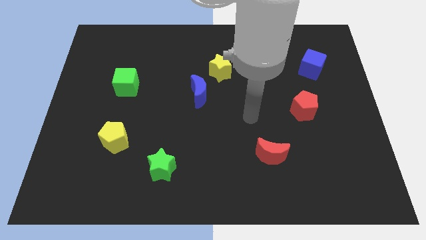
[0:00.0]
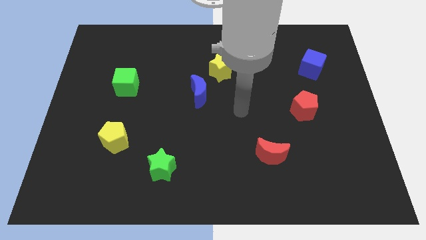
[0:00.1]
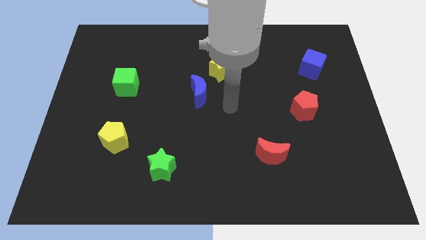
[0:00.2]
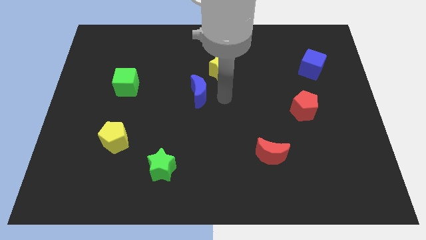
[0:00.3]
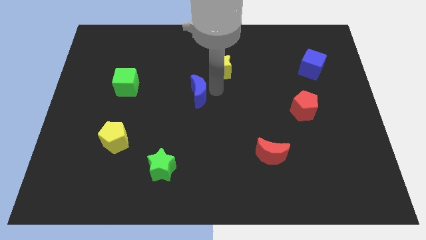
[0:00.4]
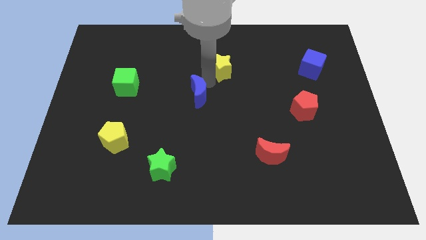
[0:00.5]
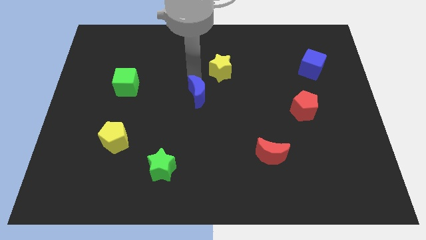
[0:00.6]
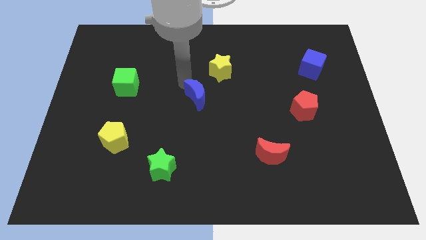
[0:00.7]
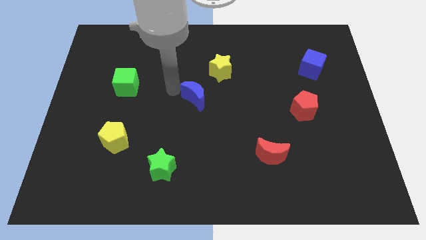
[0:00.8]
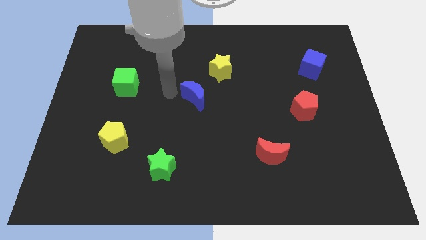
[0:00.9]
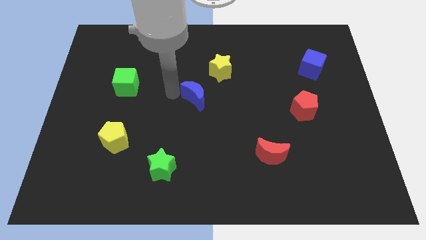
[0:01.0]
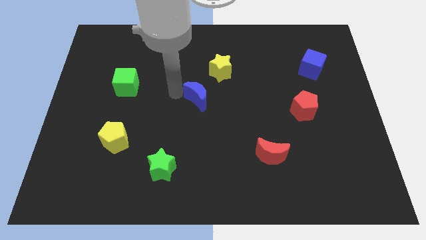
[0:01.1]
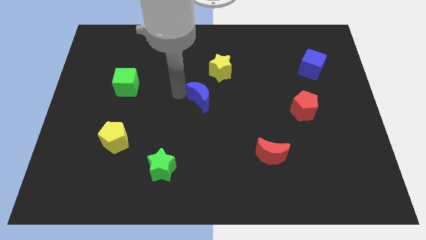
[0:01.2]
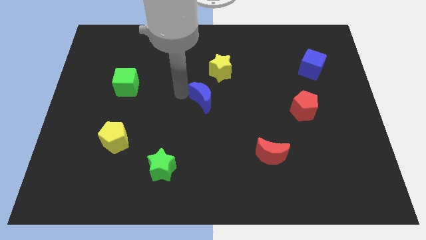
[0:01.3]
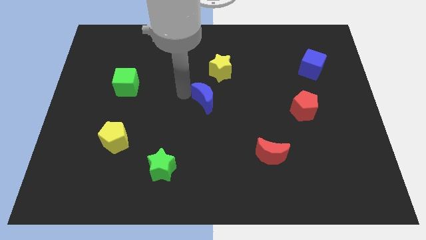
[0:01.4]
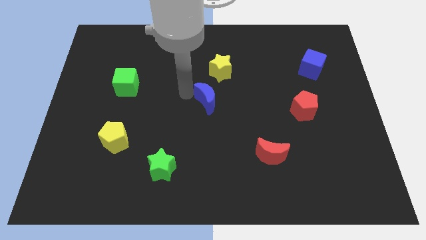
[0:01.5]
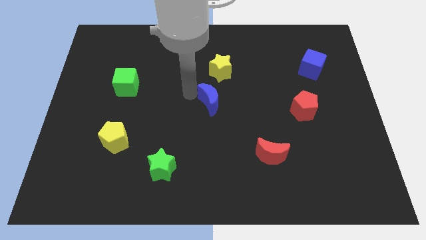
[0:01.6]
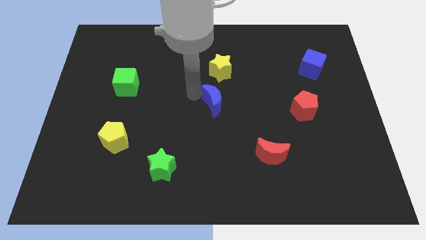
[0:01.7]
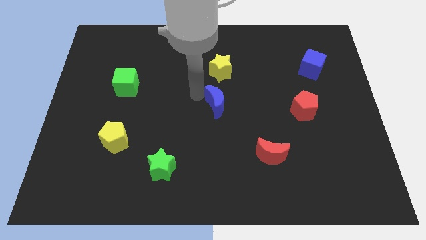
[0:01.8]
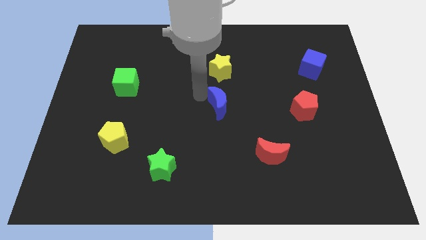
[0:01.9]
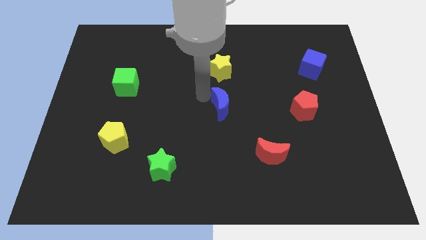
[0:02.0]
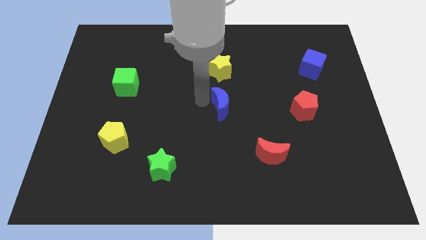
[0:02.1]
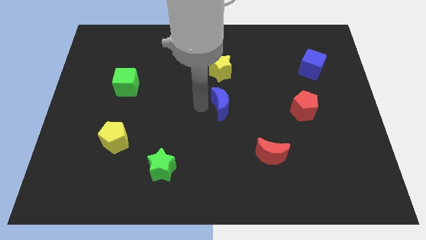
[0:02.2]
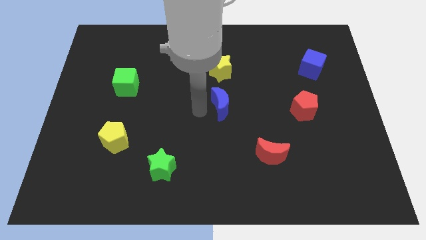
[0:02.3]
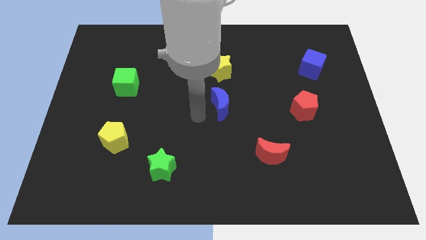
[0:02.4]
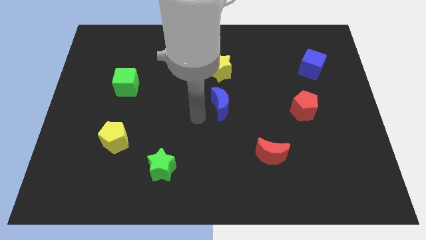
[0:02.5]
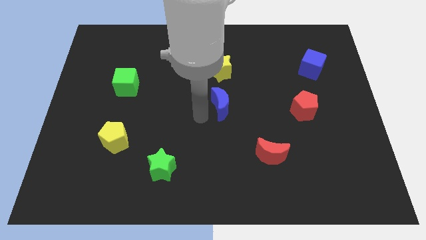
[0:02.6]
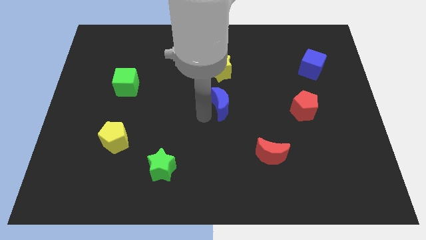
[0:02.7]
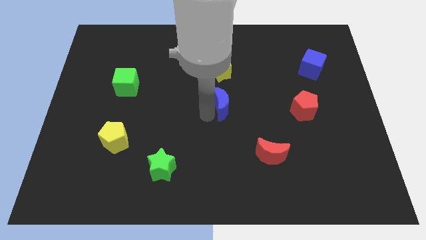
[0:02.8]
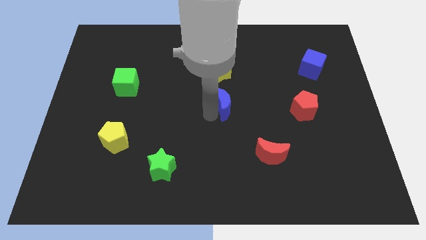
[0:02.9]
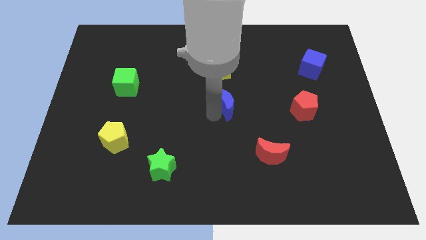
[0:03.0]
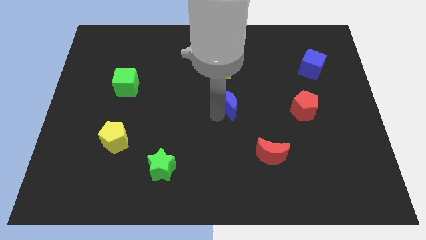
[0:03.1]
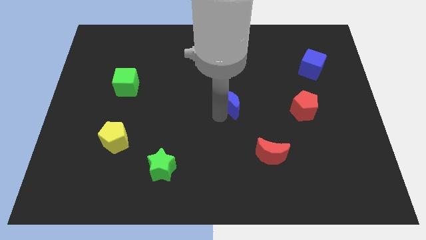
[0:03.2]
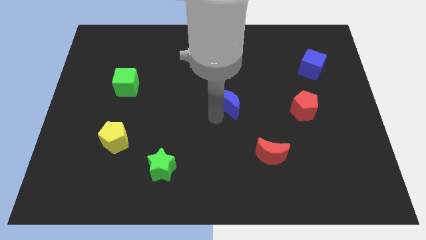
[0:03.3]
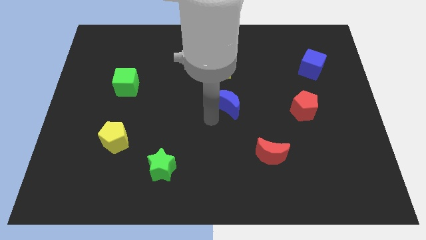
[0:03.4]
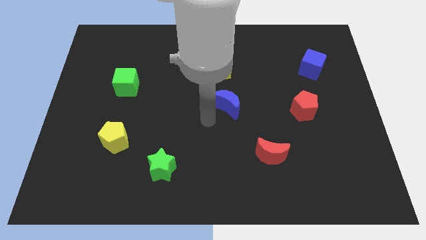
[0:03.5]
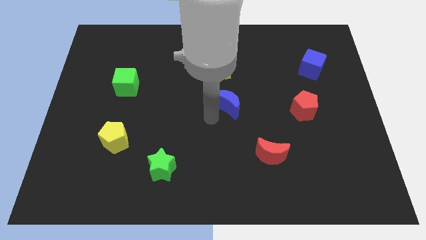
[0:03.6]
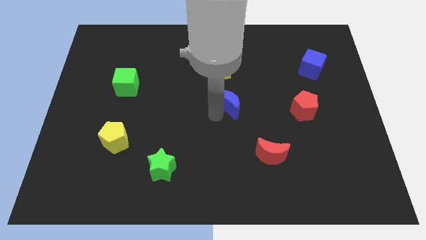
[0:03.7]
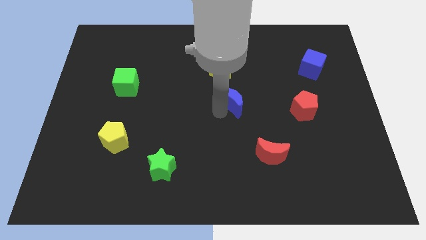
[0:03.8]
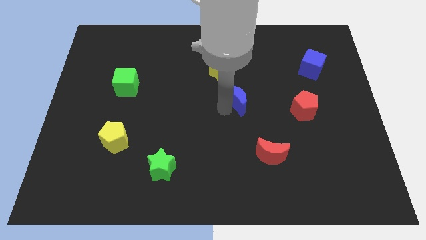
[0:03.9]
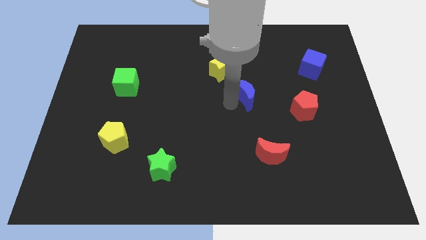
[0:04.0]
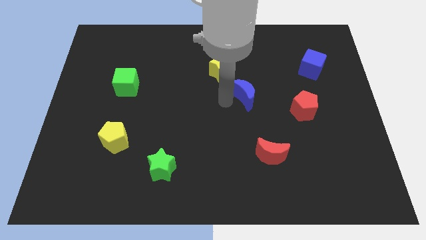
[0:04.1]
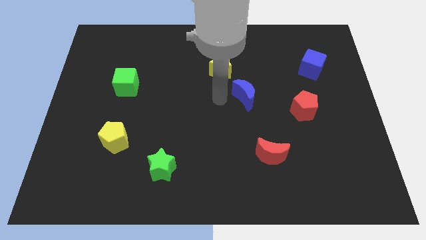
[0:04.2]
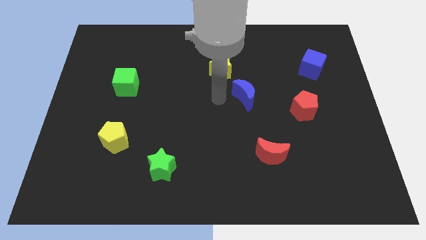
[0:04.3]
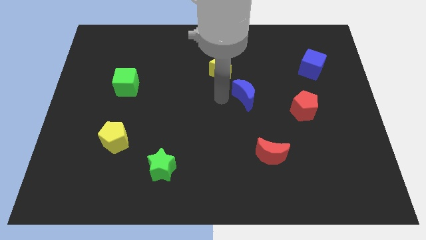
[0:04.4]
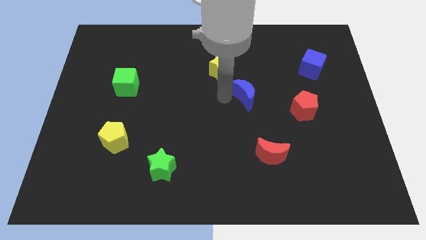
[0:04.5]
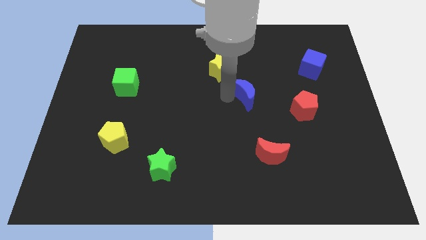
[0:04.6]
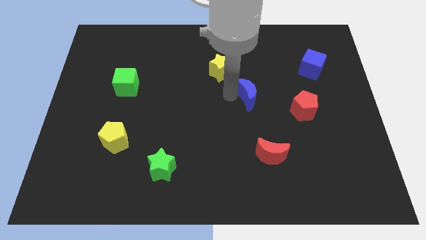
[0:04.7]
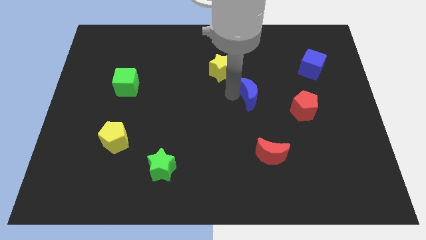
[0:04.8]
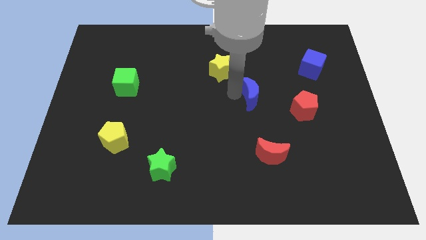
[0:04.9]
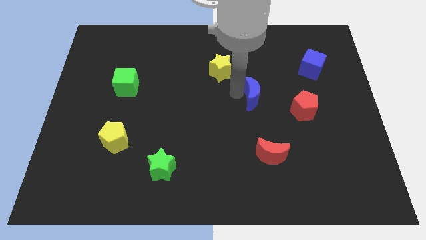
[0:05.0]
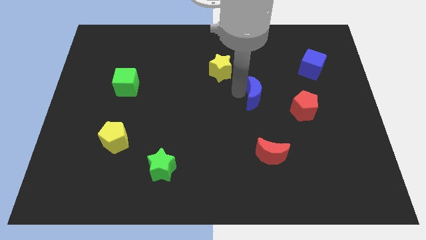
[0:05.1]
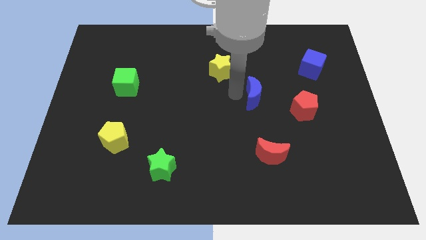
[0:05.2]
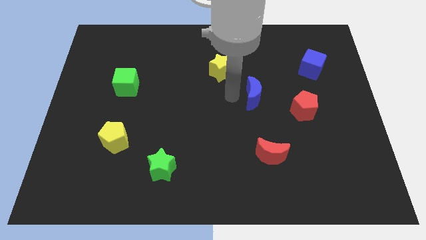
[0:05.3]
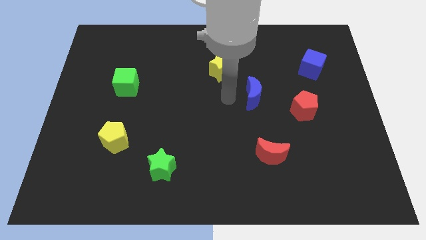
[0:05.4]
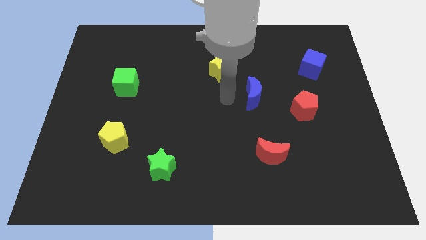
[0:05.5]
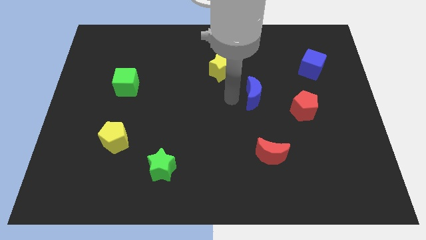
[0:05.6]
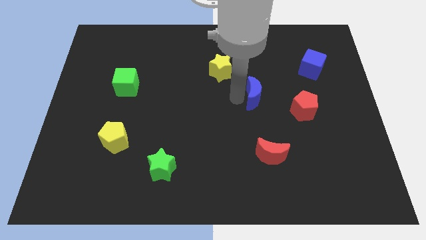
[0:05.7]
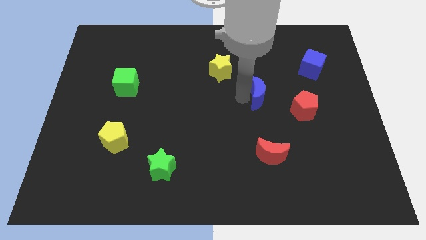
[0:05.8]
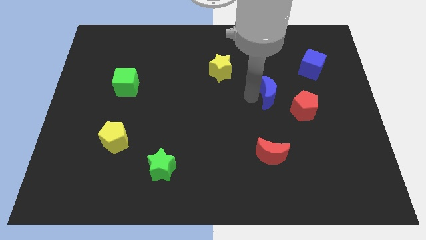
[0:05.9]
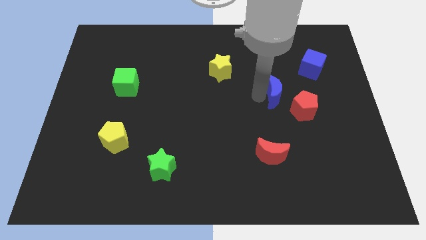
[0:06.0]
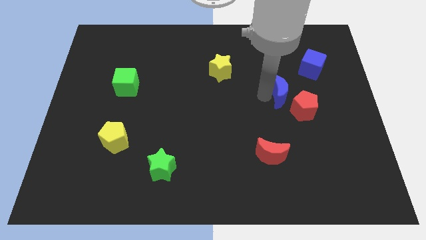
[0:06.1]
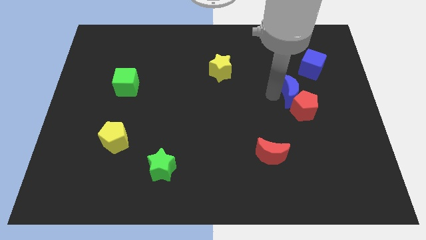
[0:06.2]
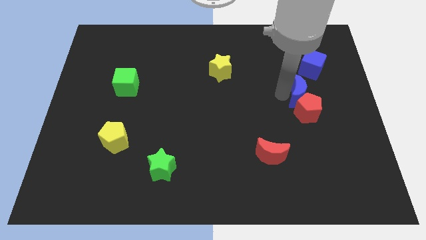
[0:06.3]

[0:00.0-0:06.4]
slide the blue moon diagonally up and to the right of the red pentagon

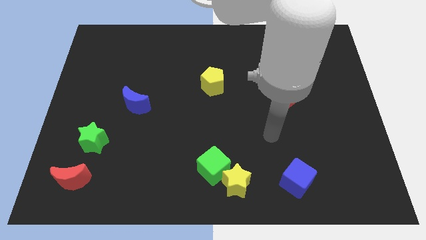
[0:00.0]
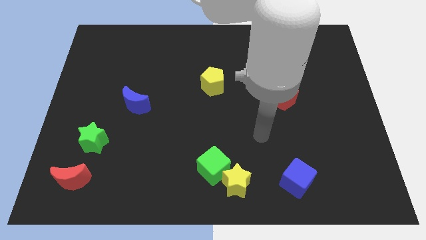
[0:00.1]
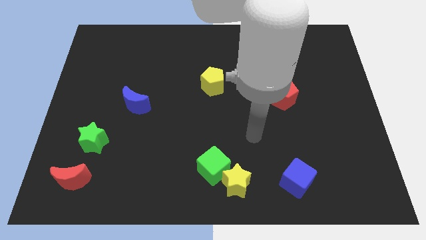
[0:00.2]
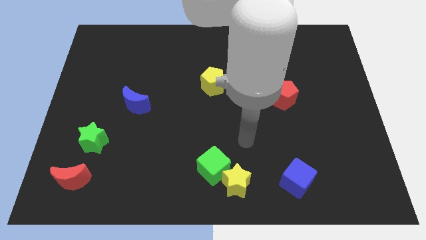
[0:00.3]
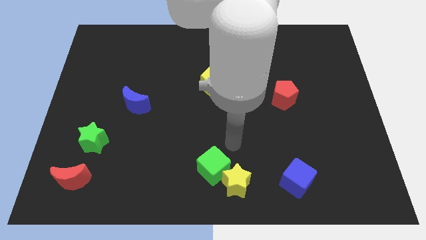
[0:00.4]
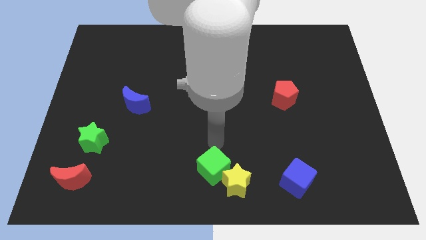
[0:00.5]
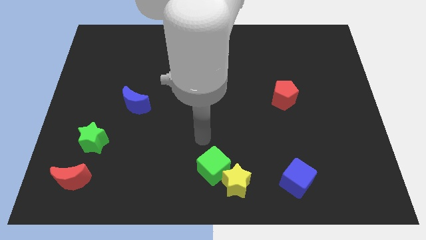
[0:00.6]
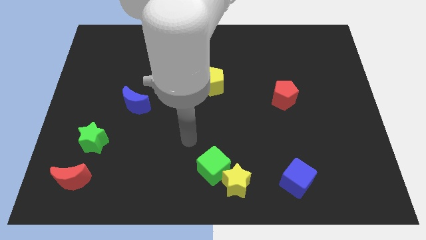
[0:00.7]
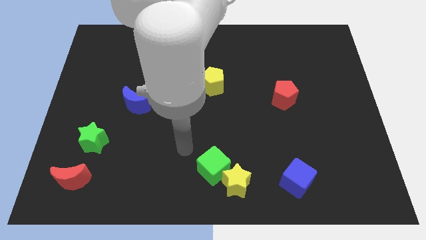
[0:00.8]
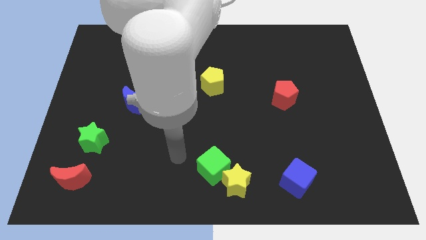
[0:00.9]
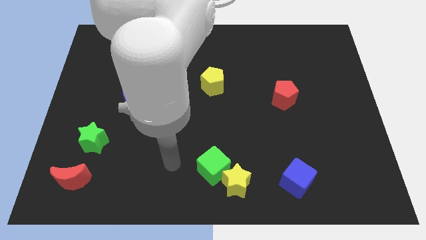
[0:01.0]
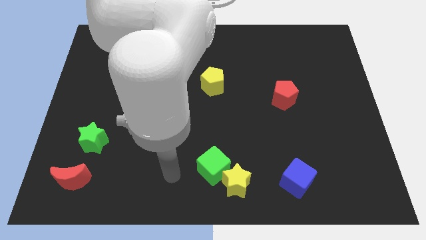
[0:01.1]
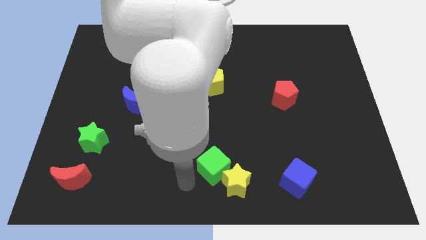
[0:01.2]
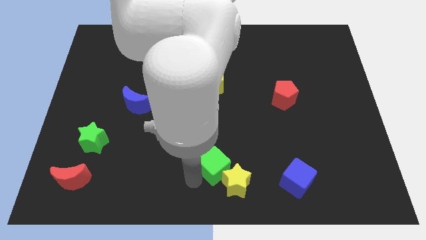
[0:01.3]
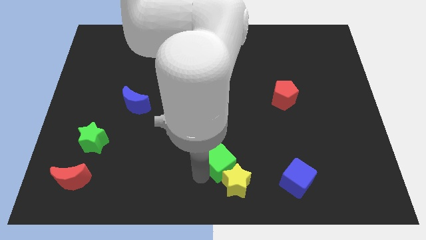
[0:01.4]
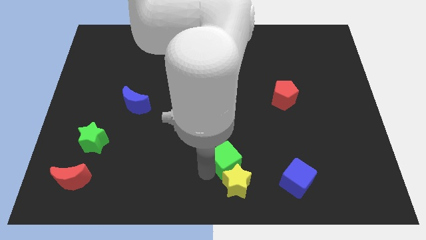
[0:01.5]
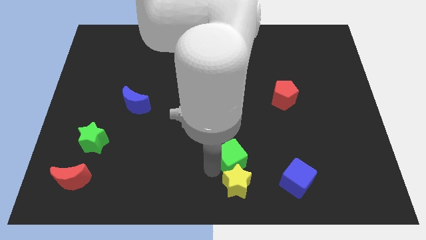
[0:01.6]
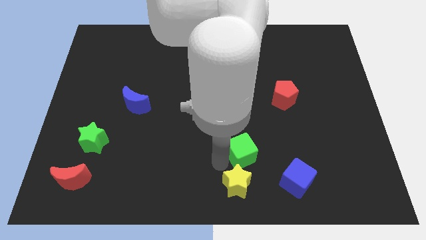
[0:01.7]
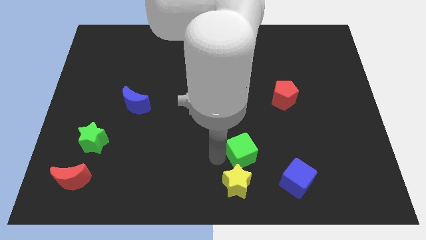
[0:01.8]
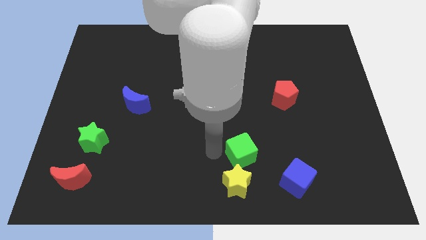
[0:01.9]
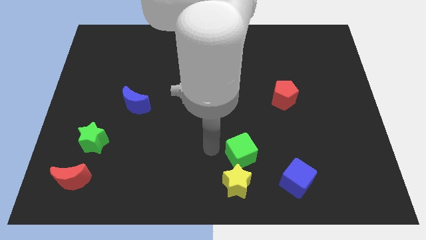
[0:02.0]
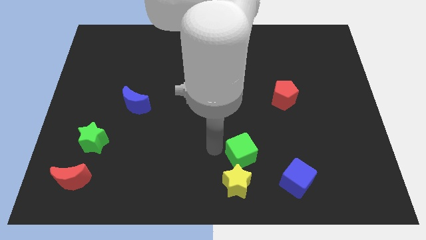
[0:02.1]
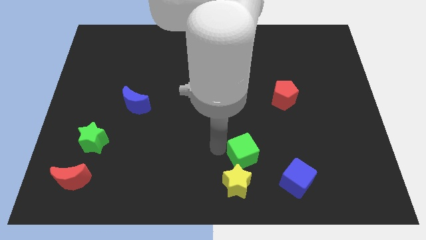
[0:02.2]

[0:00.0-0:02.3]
move the green cube to the top left side of the blue cube
